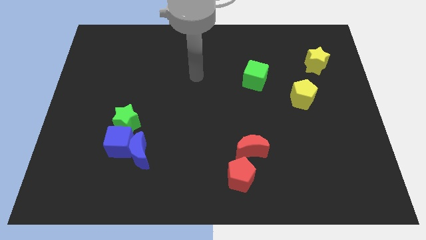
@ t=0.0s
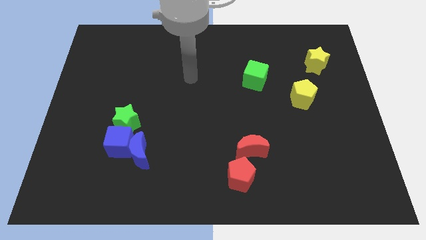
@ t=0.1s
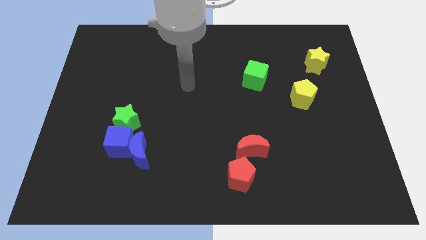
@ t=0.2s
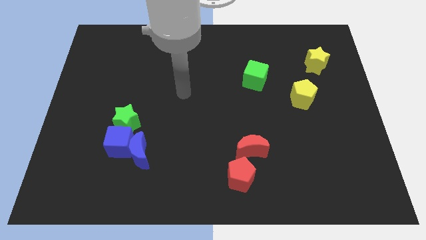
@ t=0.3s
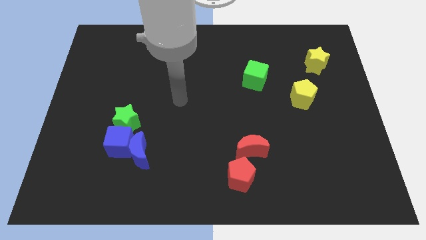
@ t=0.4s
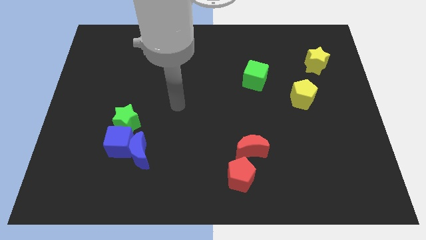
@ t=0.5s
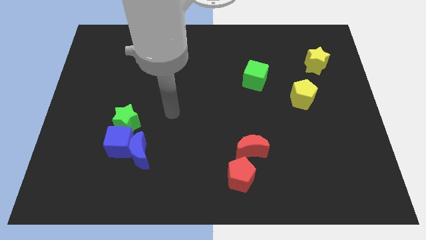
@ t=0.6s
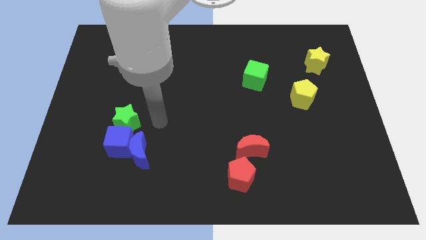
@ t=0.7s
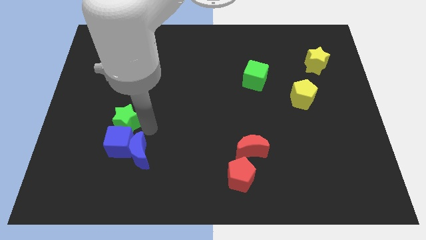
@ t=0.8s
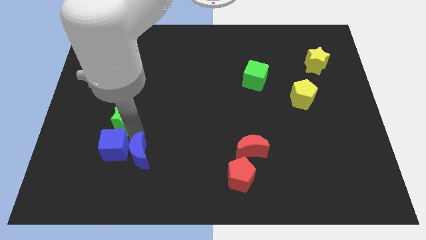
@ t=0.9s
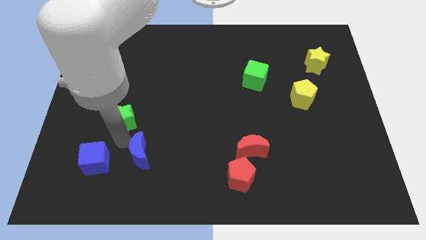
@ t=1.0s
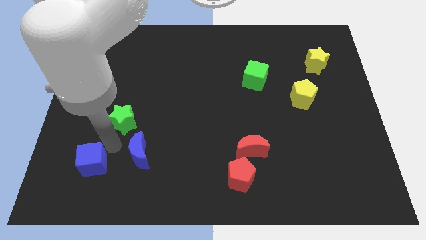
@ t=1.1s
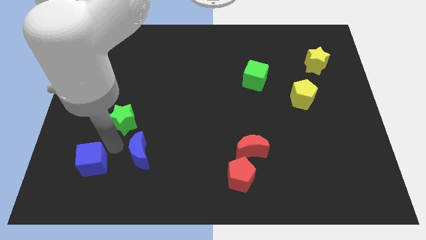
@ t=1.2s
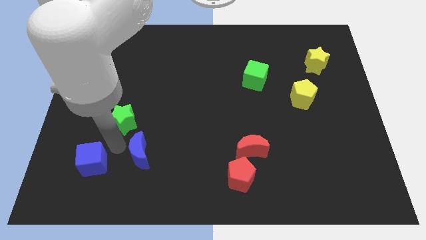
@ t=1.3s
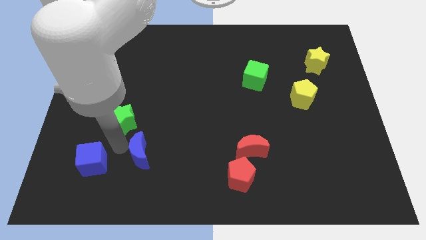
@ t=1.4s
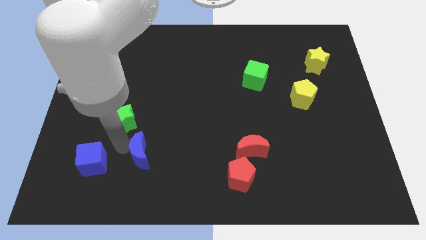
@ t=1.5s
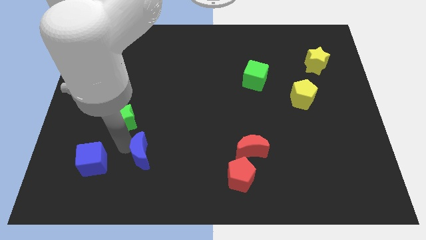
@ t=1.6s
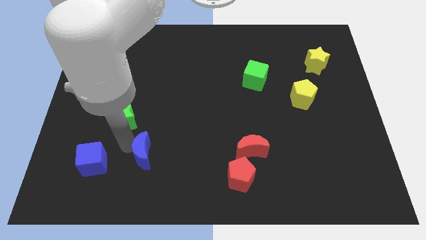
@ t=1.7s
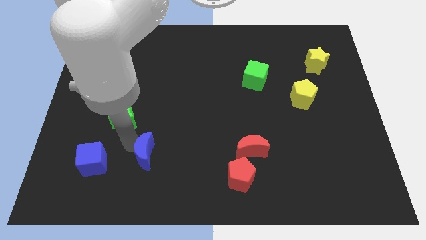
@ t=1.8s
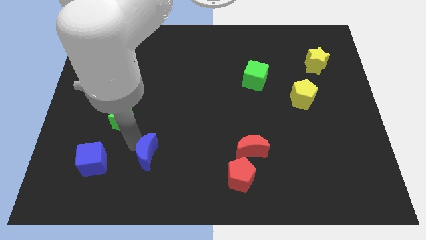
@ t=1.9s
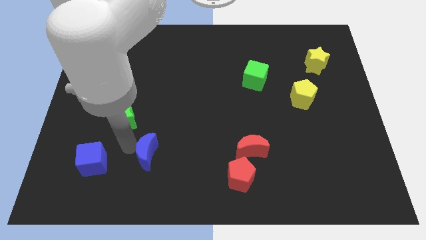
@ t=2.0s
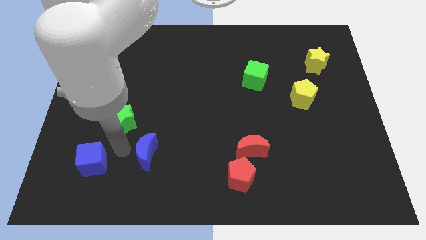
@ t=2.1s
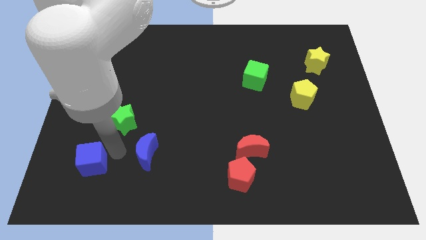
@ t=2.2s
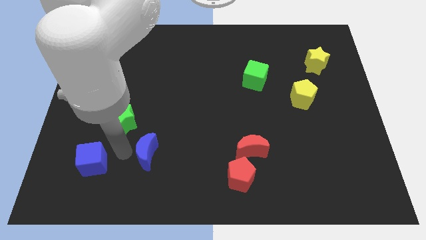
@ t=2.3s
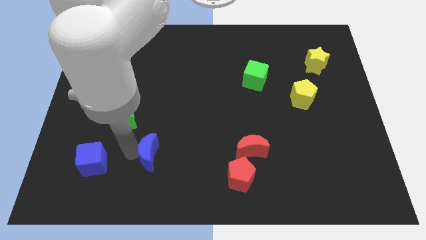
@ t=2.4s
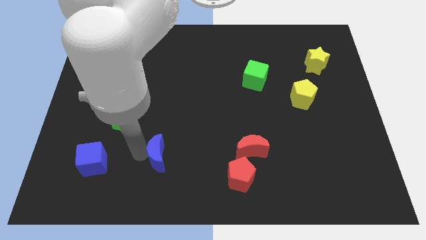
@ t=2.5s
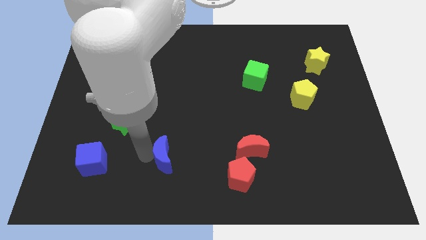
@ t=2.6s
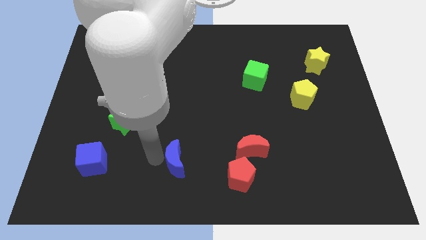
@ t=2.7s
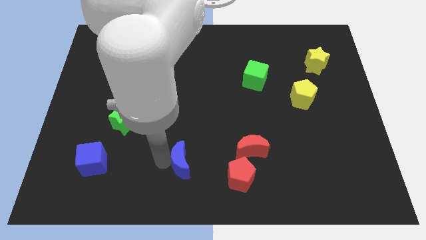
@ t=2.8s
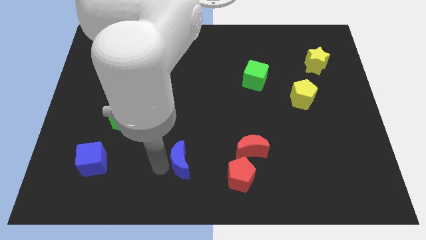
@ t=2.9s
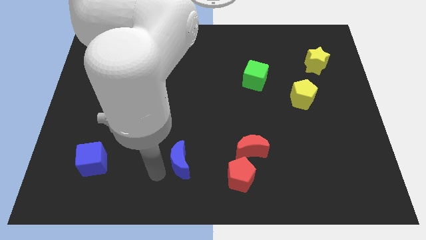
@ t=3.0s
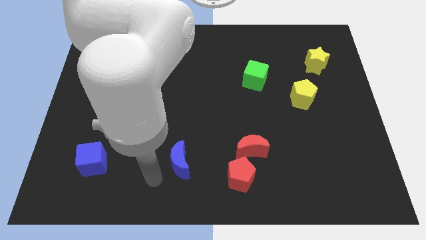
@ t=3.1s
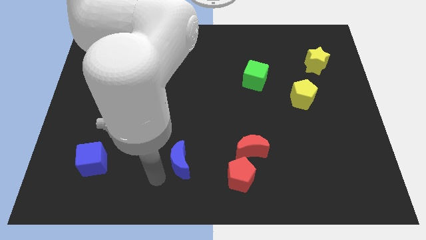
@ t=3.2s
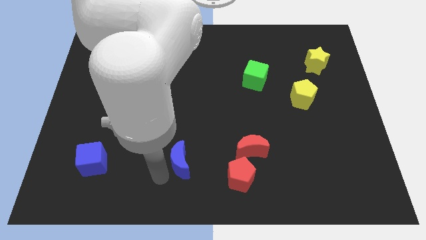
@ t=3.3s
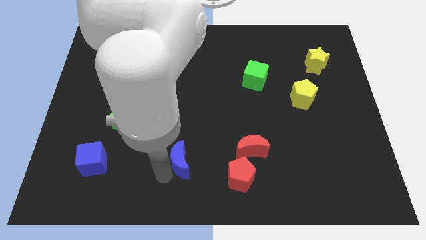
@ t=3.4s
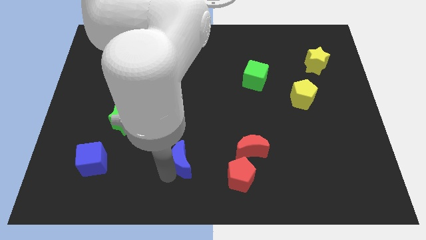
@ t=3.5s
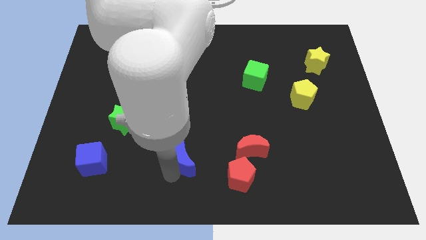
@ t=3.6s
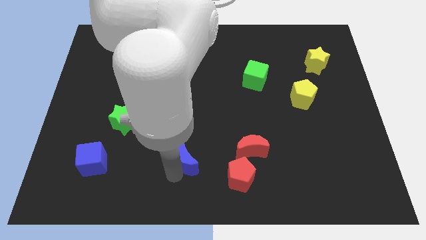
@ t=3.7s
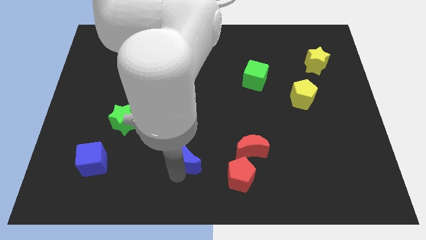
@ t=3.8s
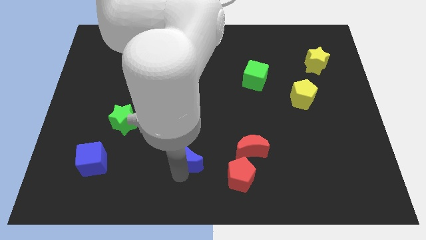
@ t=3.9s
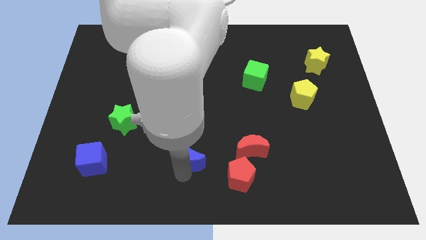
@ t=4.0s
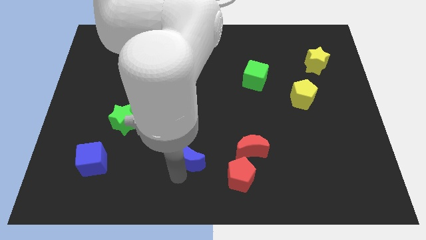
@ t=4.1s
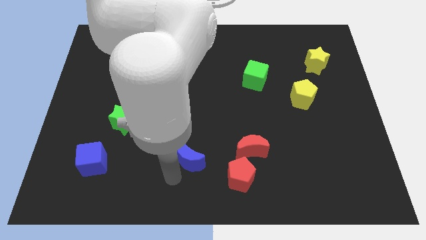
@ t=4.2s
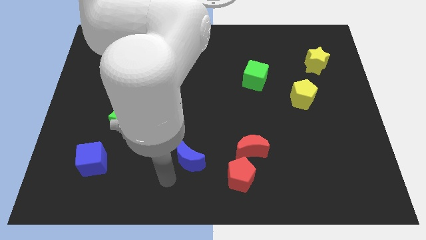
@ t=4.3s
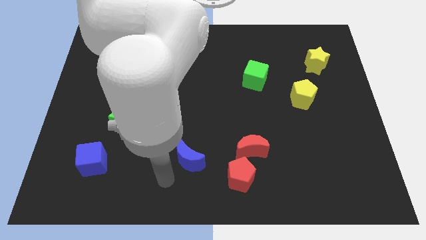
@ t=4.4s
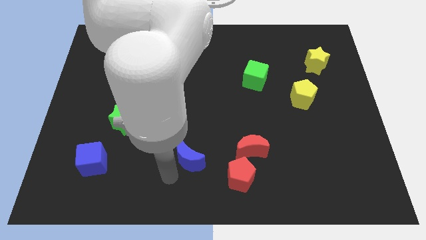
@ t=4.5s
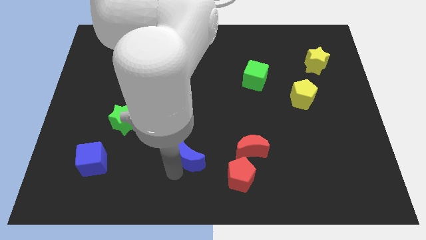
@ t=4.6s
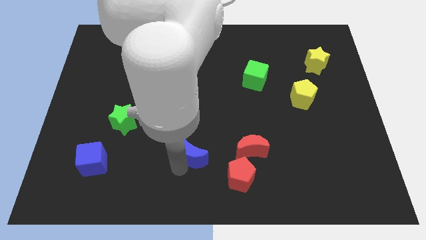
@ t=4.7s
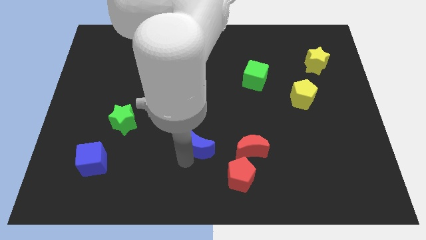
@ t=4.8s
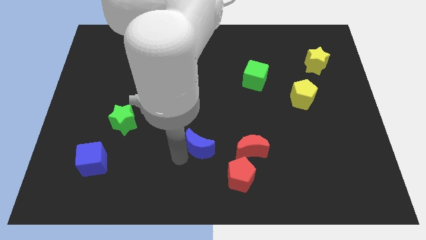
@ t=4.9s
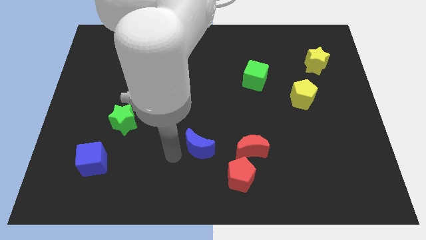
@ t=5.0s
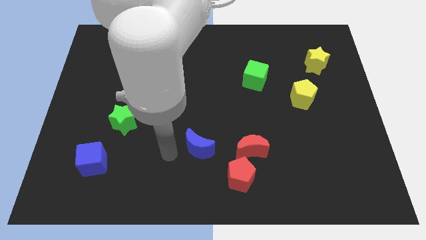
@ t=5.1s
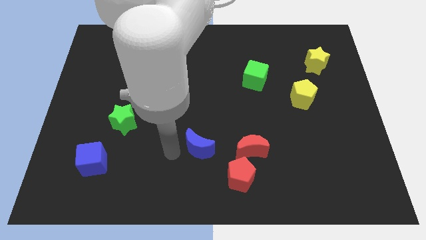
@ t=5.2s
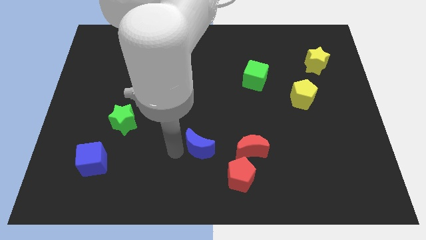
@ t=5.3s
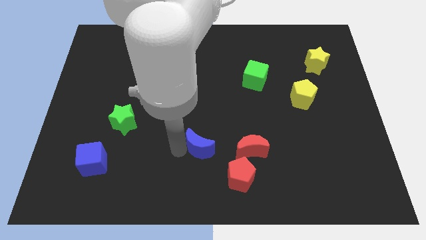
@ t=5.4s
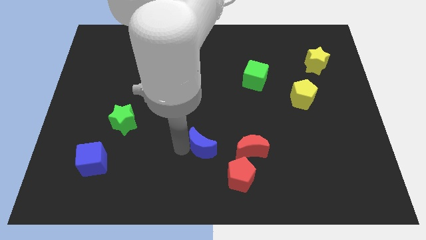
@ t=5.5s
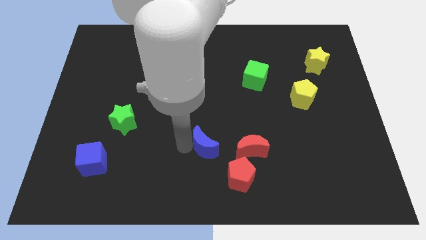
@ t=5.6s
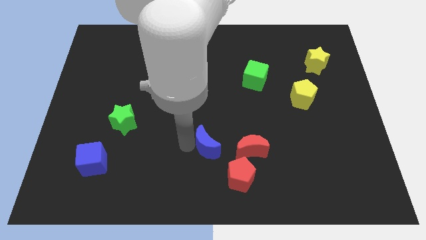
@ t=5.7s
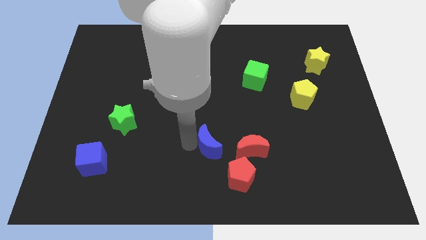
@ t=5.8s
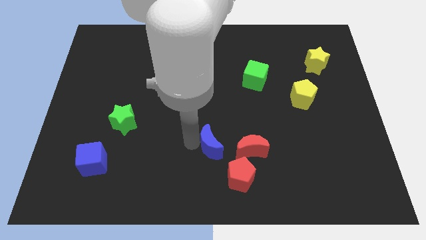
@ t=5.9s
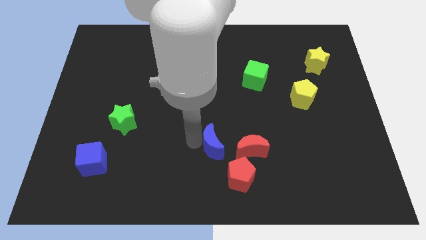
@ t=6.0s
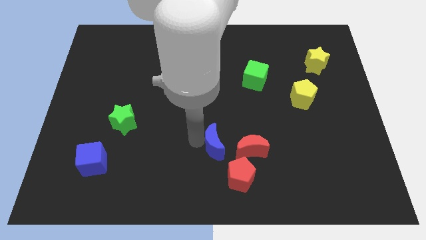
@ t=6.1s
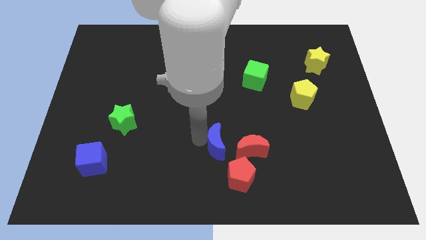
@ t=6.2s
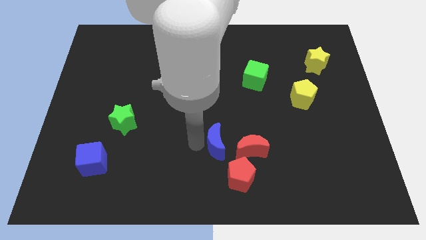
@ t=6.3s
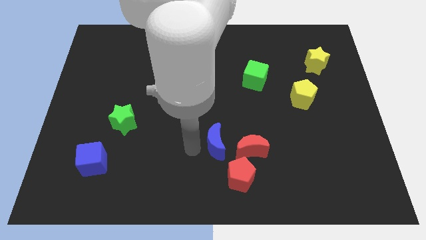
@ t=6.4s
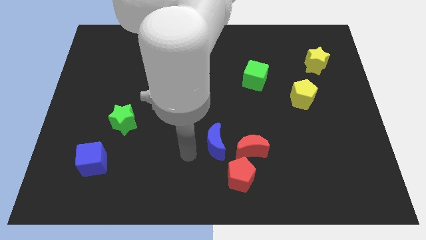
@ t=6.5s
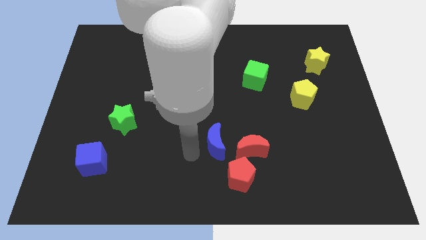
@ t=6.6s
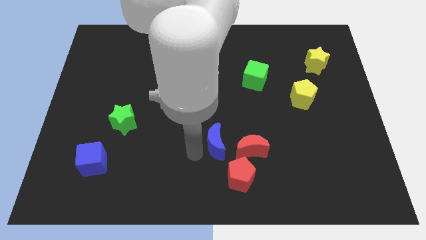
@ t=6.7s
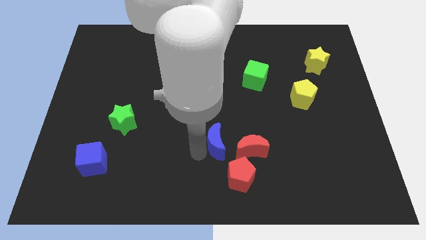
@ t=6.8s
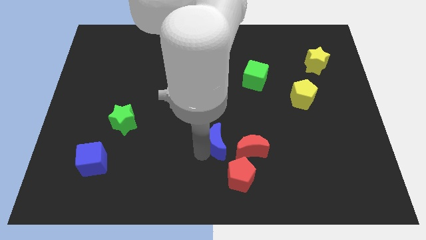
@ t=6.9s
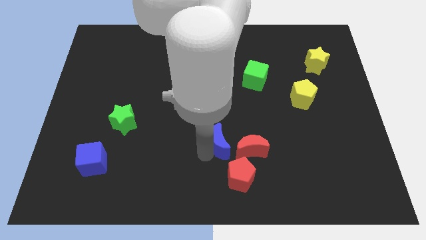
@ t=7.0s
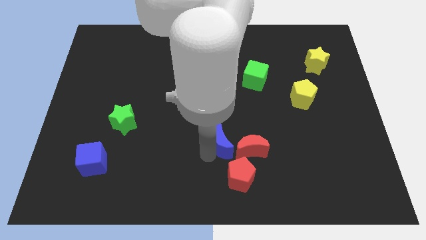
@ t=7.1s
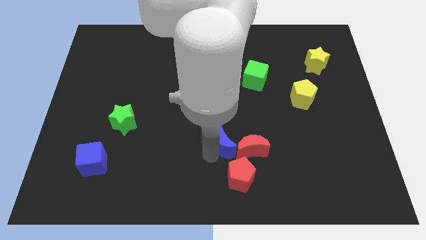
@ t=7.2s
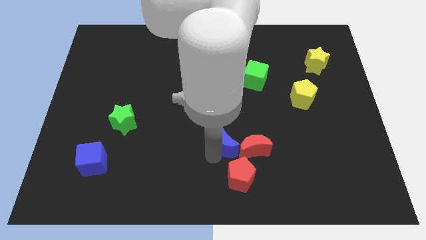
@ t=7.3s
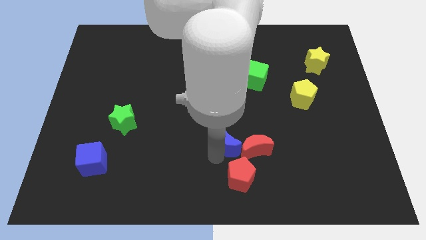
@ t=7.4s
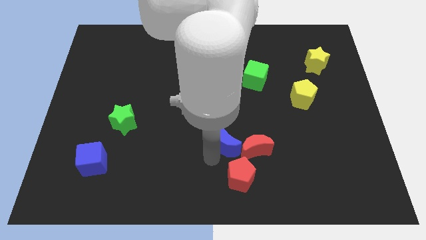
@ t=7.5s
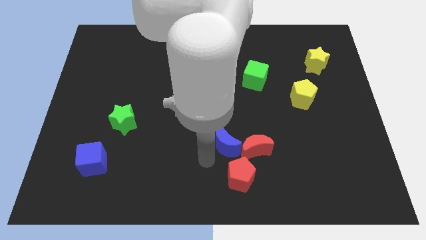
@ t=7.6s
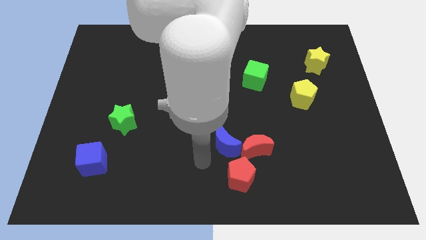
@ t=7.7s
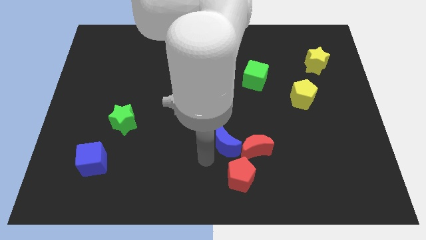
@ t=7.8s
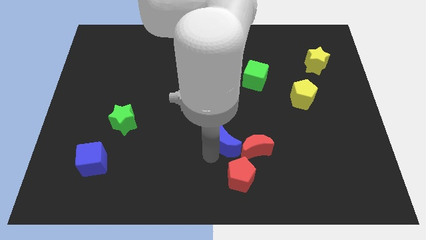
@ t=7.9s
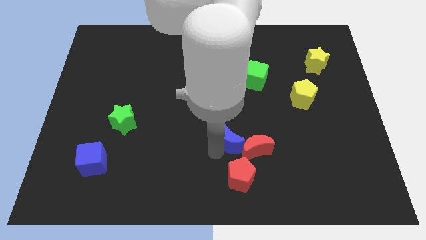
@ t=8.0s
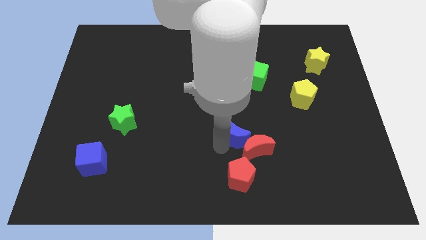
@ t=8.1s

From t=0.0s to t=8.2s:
slide the blue moon to the right
